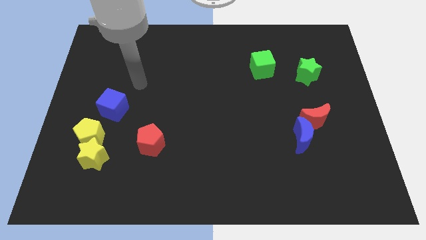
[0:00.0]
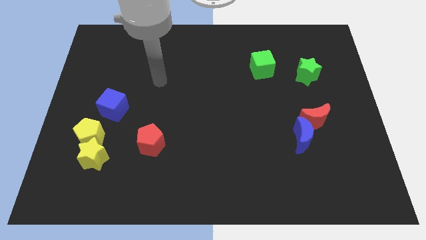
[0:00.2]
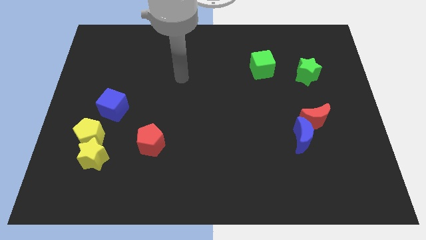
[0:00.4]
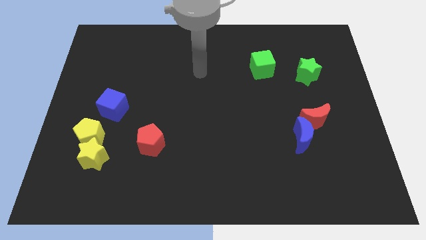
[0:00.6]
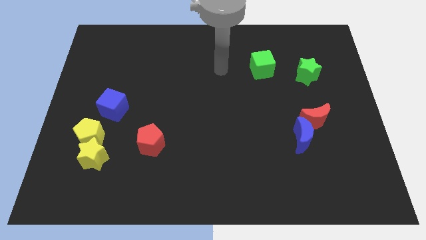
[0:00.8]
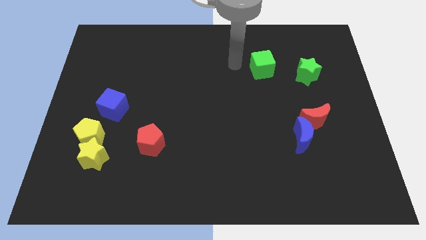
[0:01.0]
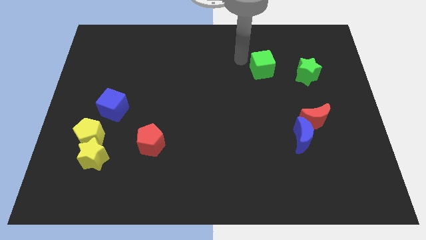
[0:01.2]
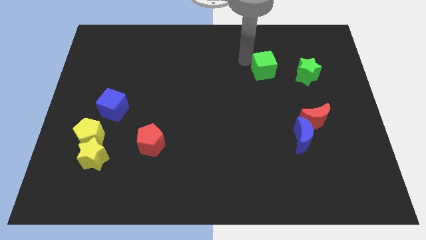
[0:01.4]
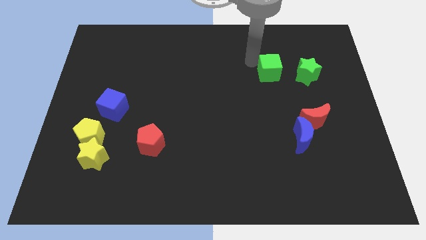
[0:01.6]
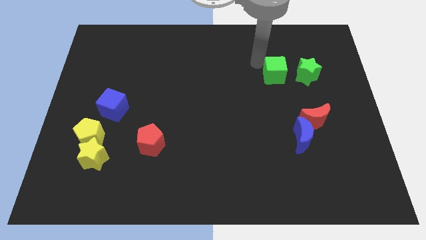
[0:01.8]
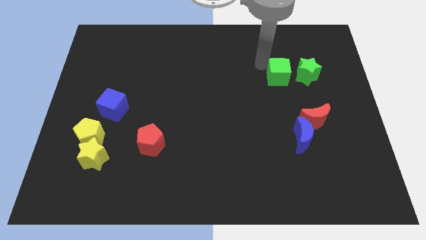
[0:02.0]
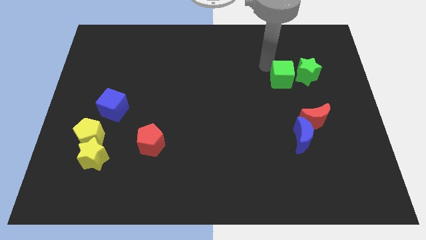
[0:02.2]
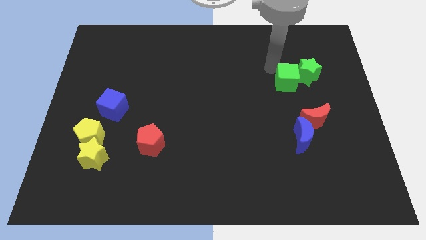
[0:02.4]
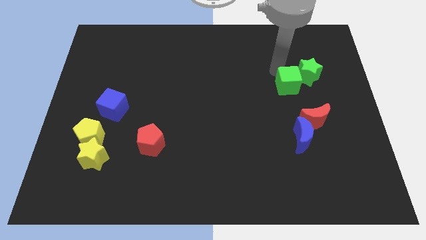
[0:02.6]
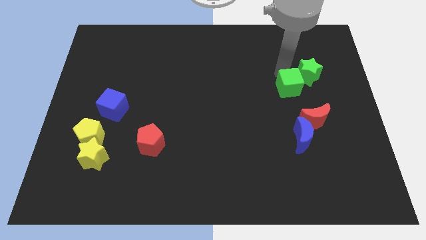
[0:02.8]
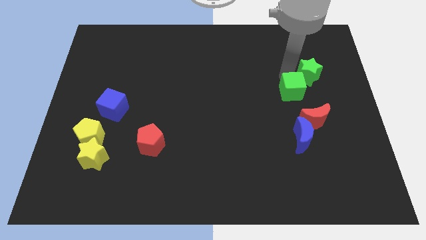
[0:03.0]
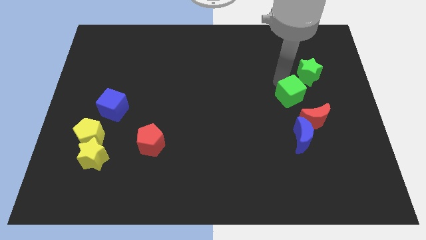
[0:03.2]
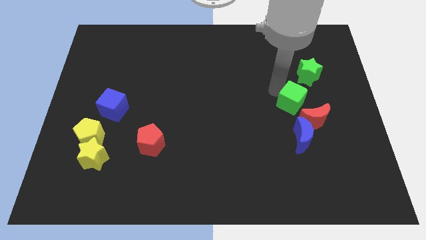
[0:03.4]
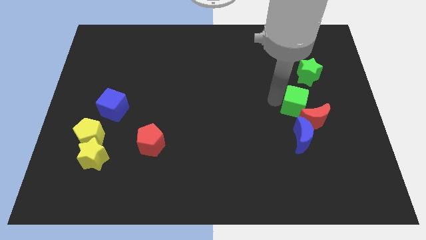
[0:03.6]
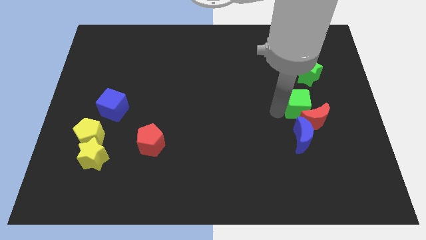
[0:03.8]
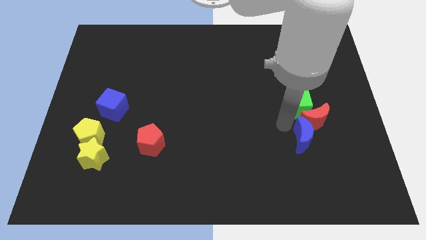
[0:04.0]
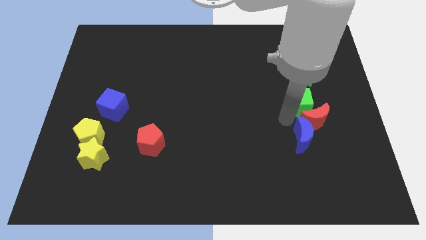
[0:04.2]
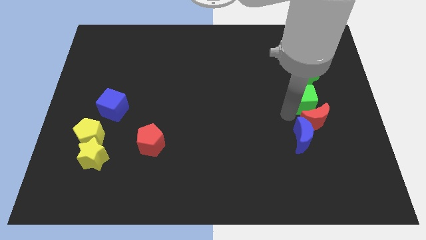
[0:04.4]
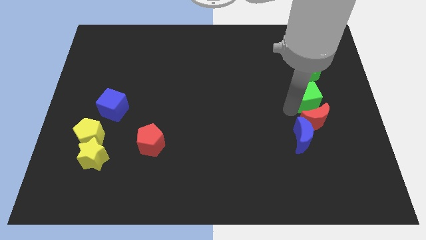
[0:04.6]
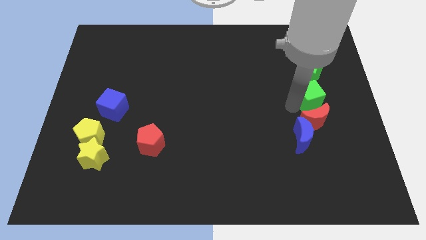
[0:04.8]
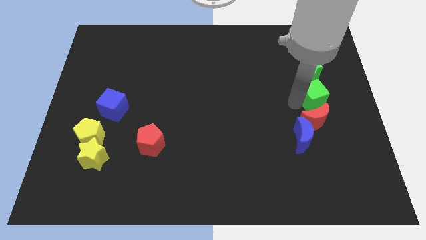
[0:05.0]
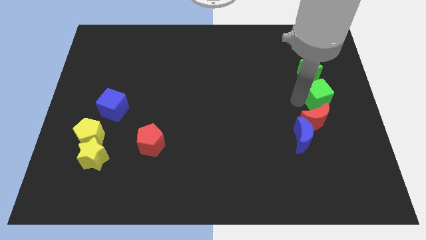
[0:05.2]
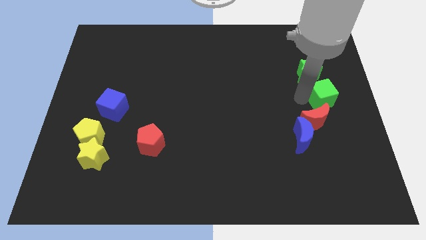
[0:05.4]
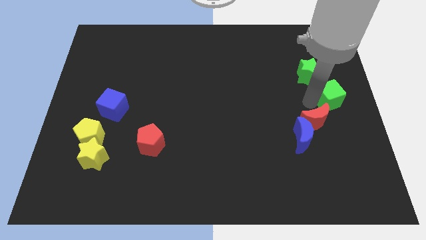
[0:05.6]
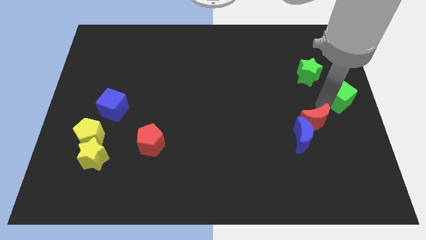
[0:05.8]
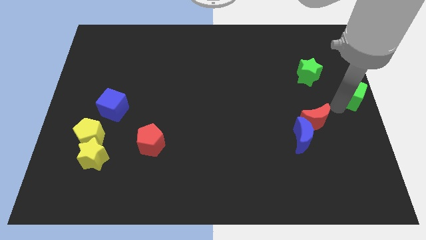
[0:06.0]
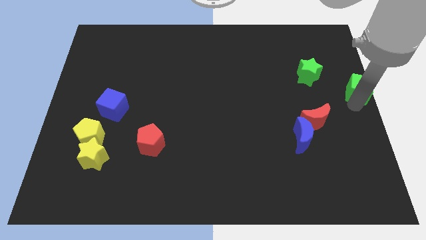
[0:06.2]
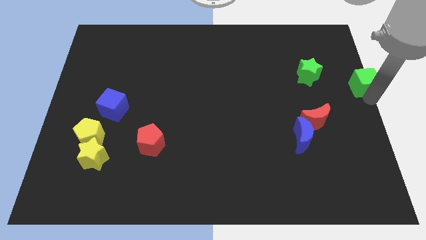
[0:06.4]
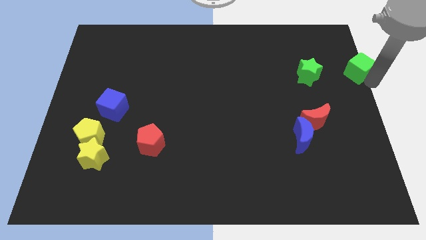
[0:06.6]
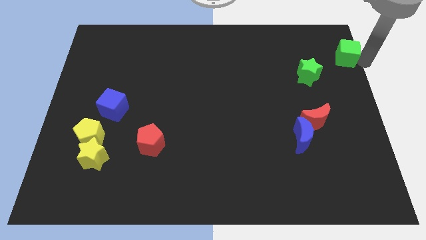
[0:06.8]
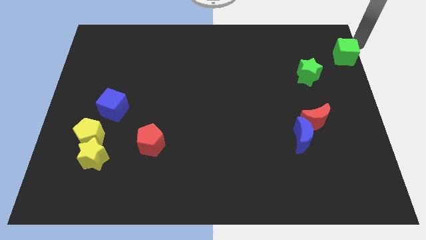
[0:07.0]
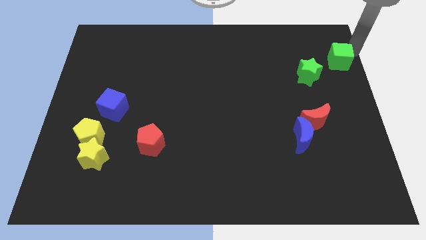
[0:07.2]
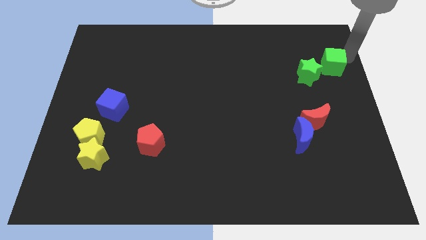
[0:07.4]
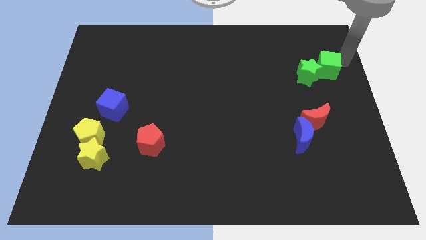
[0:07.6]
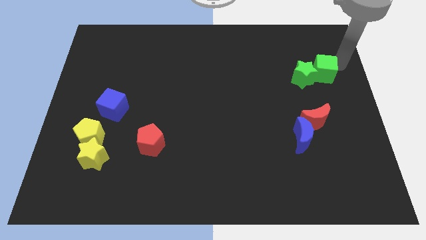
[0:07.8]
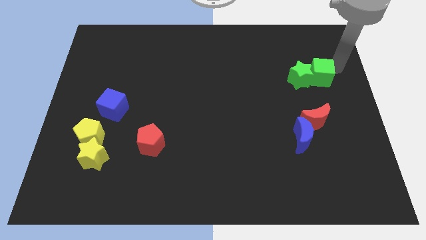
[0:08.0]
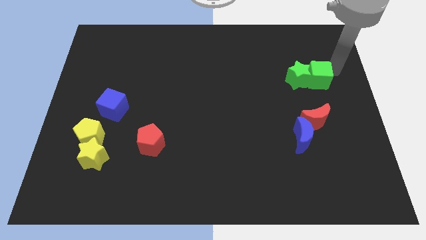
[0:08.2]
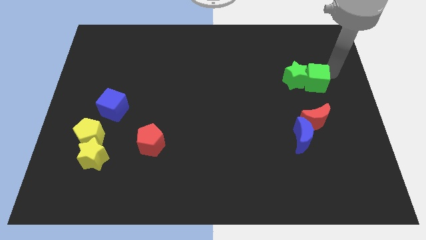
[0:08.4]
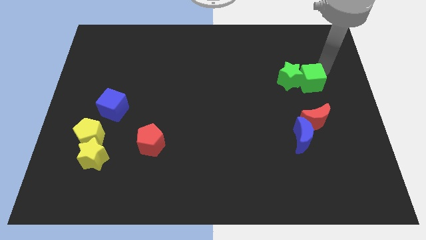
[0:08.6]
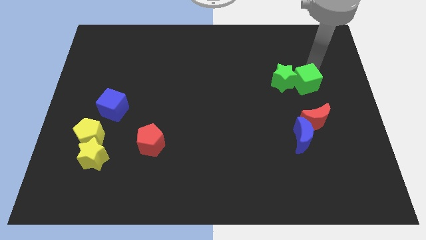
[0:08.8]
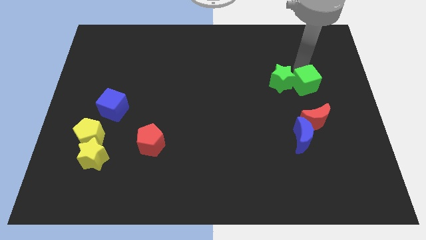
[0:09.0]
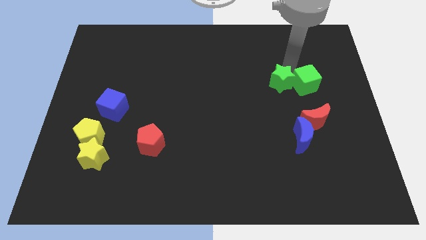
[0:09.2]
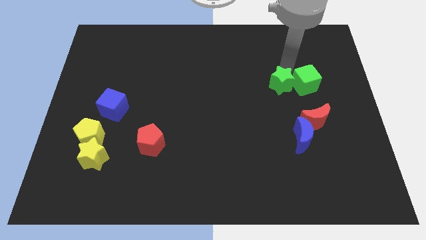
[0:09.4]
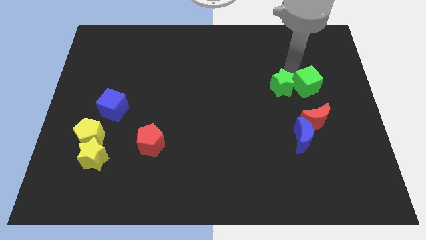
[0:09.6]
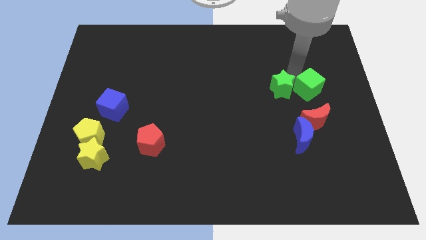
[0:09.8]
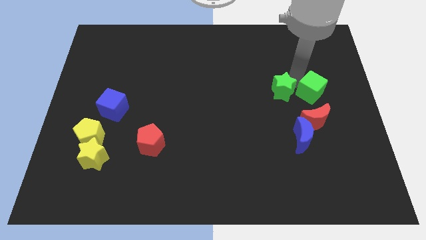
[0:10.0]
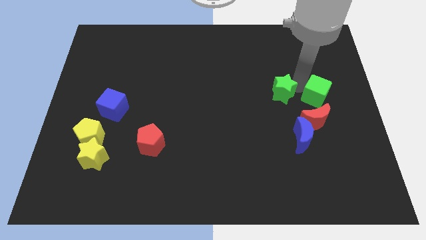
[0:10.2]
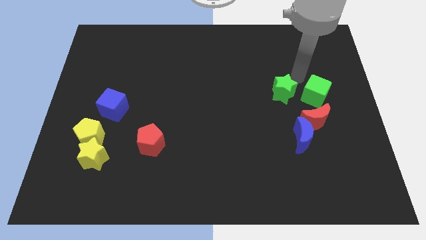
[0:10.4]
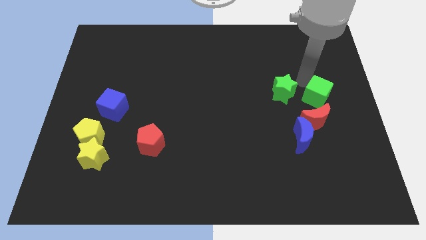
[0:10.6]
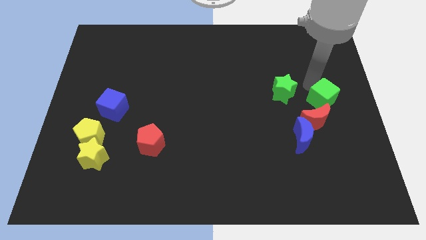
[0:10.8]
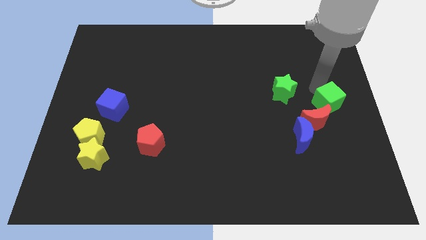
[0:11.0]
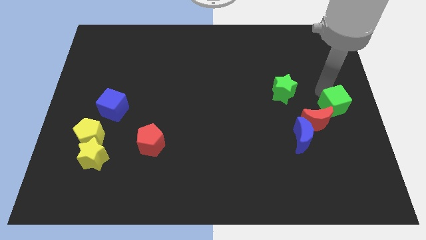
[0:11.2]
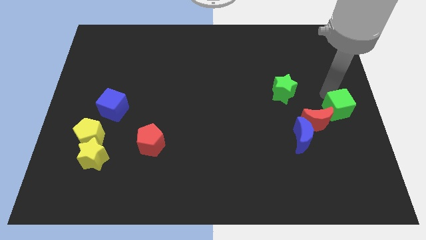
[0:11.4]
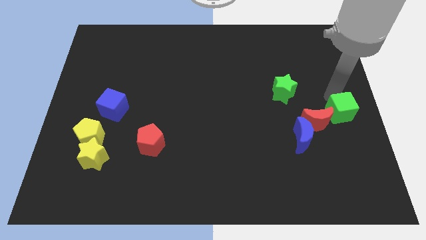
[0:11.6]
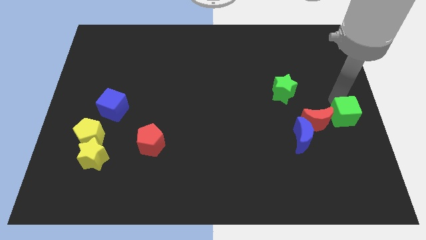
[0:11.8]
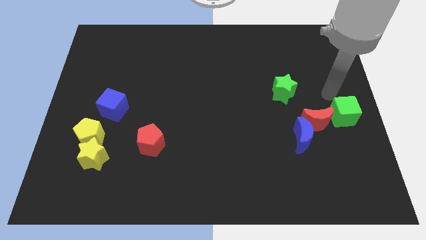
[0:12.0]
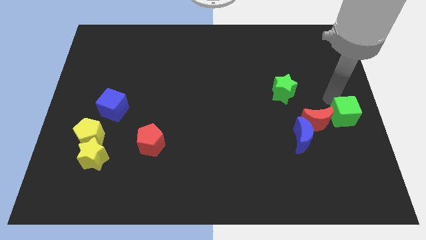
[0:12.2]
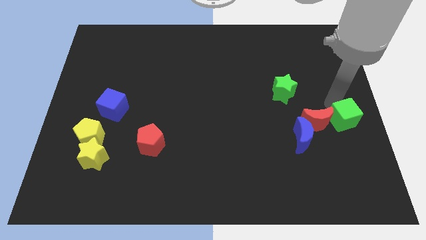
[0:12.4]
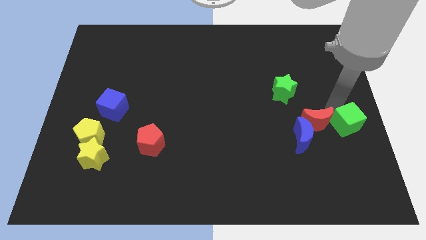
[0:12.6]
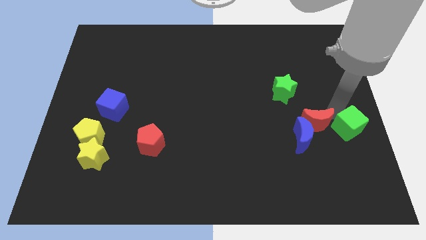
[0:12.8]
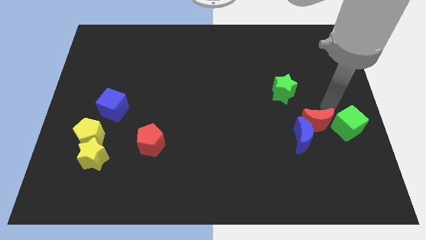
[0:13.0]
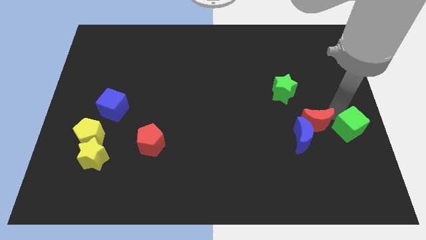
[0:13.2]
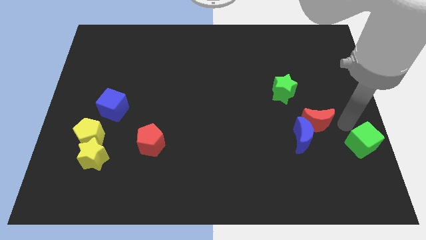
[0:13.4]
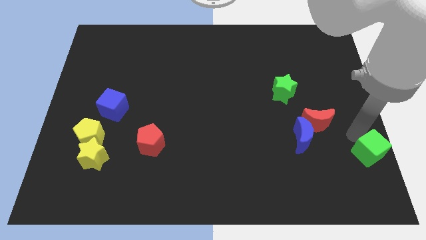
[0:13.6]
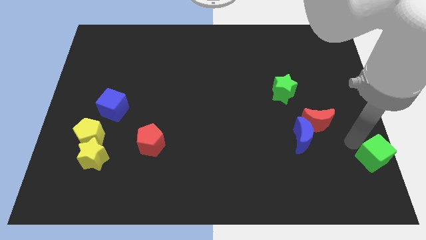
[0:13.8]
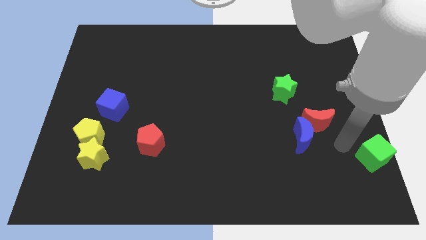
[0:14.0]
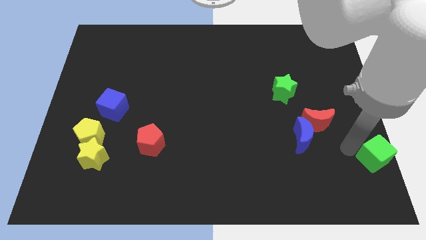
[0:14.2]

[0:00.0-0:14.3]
push the green cube to the bottom right of the board
